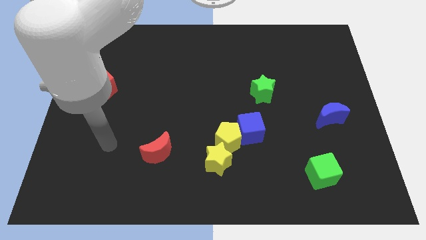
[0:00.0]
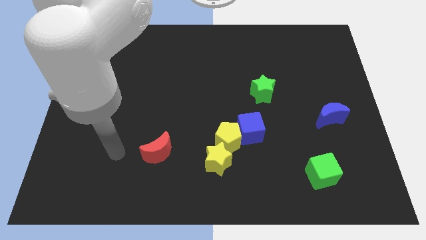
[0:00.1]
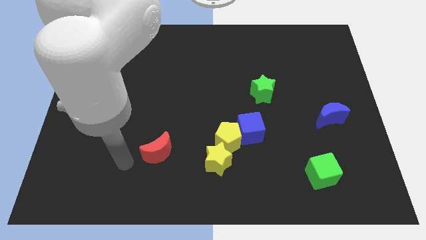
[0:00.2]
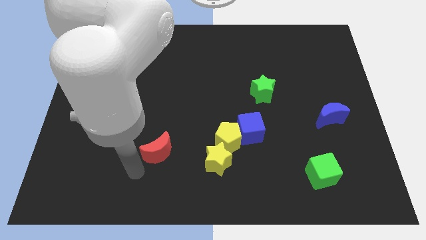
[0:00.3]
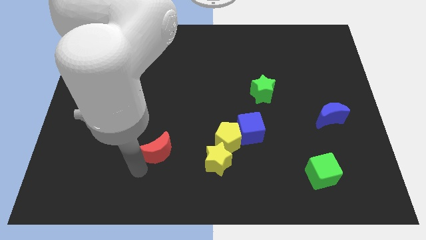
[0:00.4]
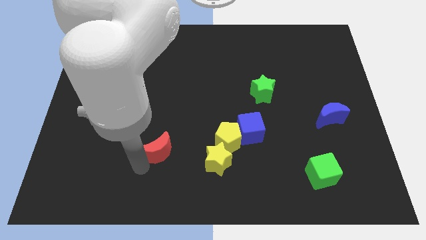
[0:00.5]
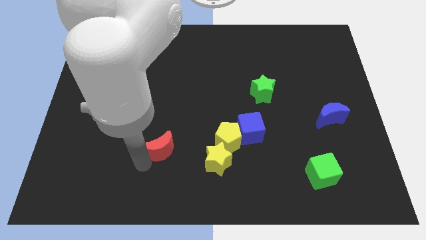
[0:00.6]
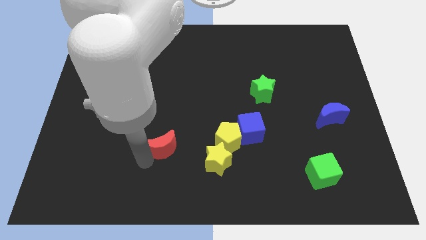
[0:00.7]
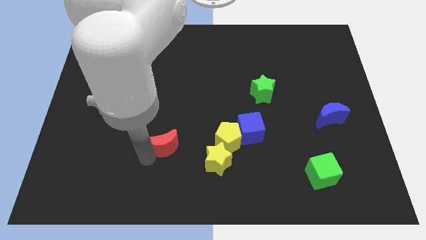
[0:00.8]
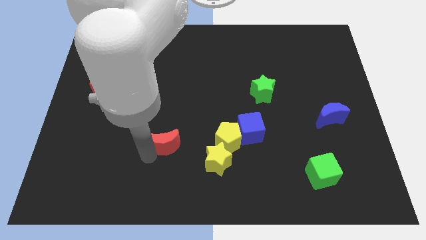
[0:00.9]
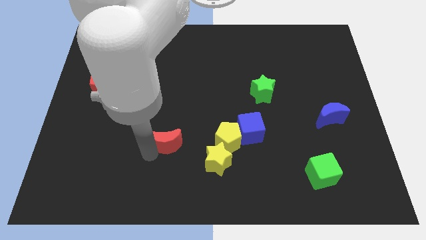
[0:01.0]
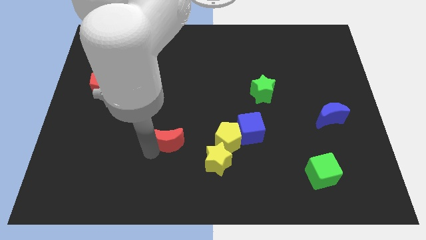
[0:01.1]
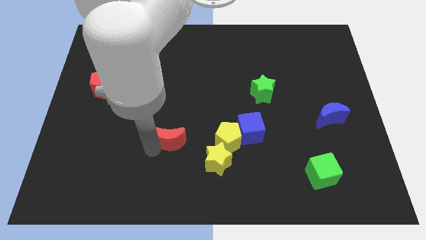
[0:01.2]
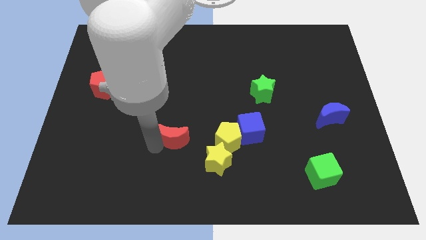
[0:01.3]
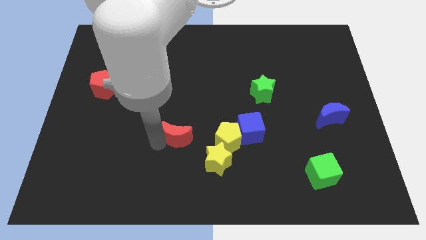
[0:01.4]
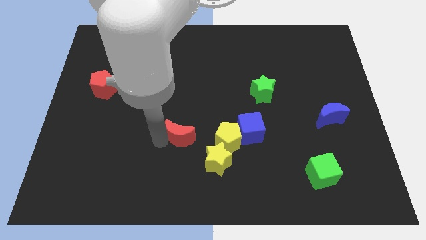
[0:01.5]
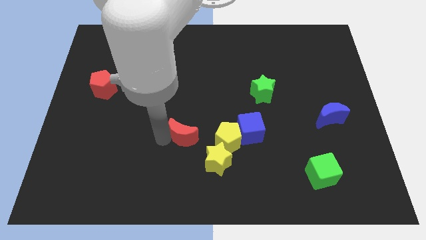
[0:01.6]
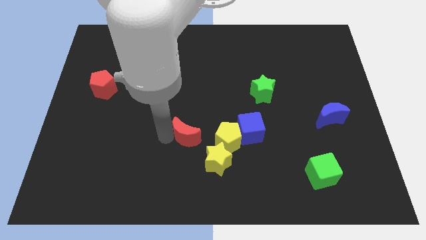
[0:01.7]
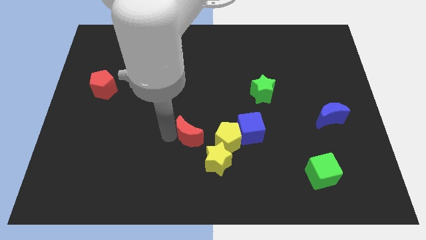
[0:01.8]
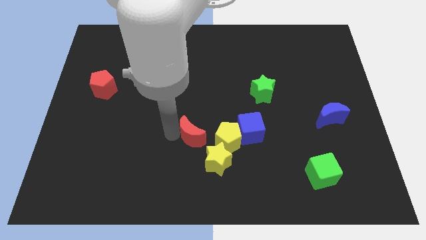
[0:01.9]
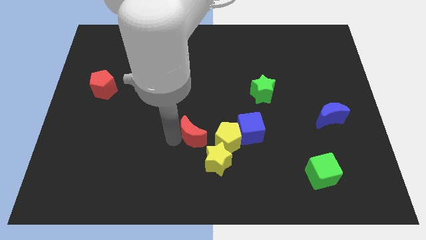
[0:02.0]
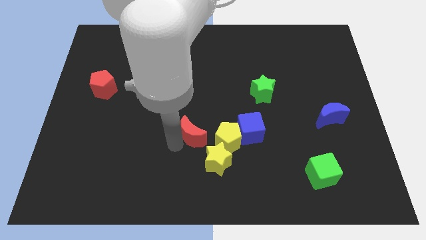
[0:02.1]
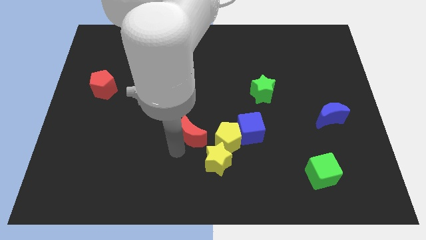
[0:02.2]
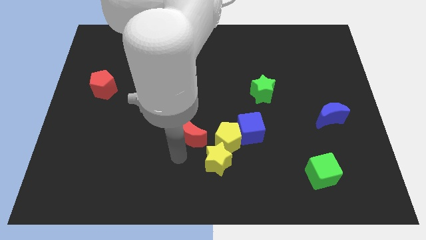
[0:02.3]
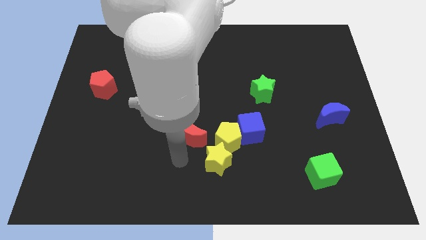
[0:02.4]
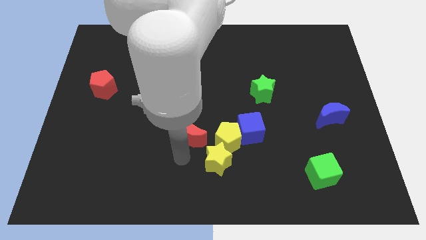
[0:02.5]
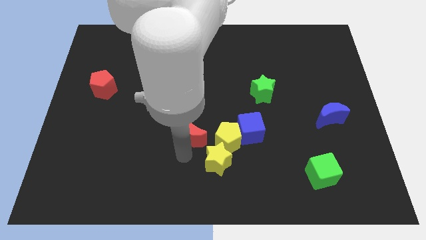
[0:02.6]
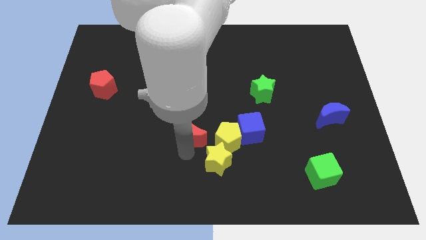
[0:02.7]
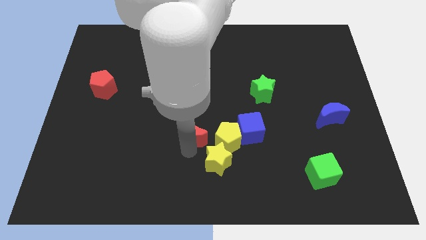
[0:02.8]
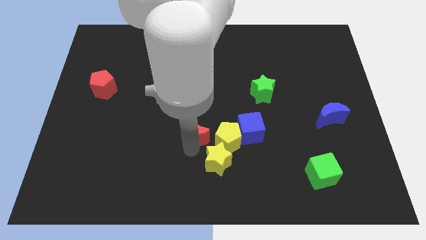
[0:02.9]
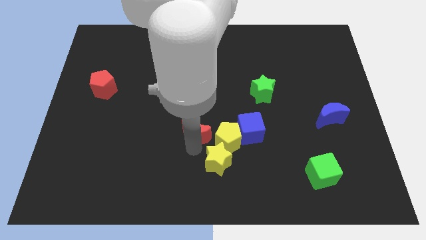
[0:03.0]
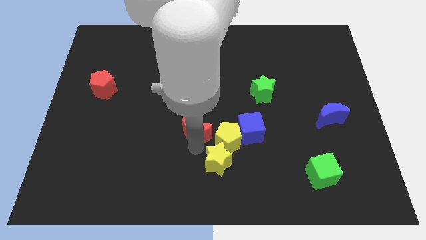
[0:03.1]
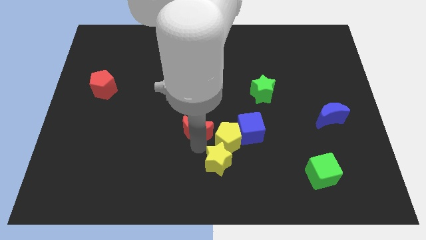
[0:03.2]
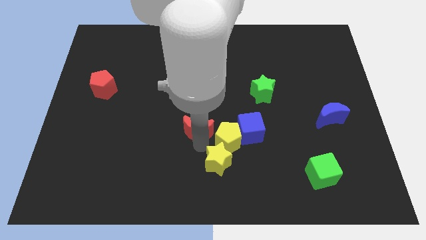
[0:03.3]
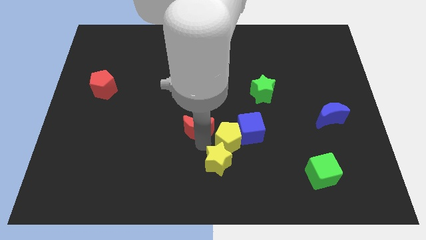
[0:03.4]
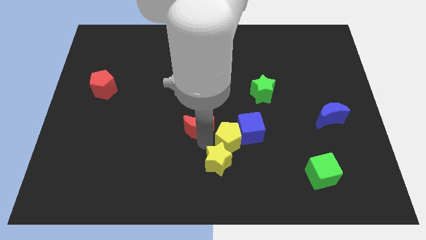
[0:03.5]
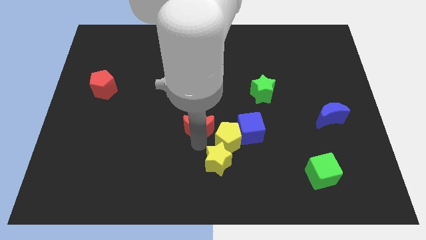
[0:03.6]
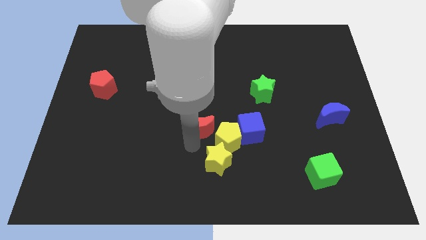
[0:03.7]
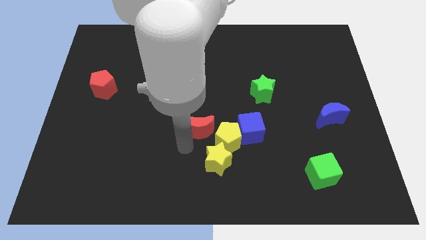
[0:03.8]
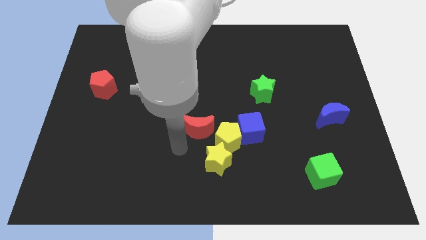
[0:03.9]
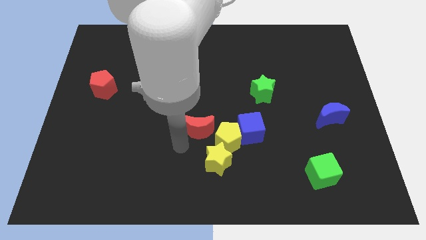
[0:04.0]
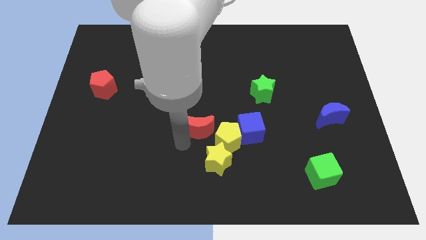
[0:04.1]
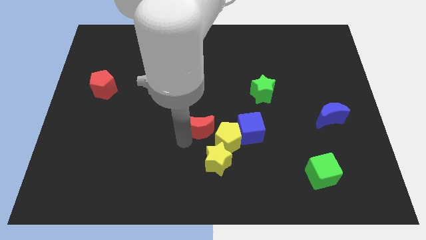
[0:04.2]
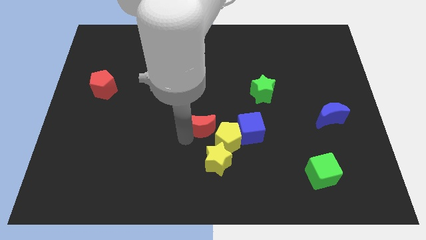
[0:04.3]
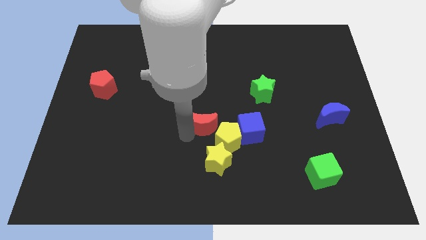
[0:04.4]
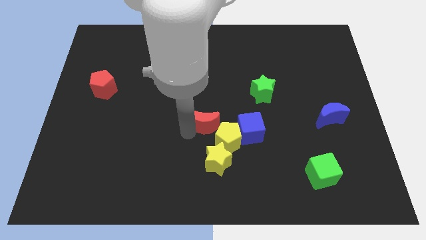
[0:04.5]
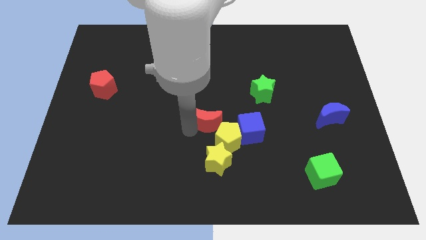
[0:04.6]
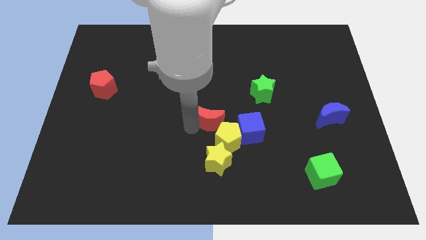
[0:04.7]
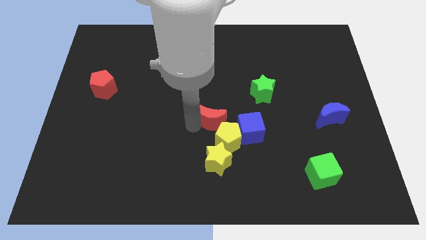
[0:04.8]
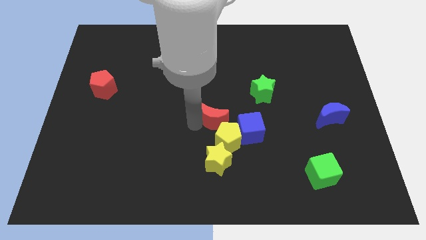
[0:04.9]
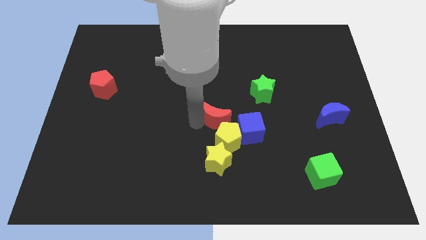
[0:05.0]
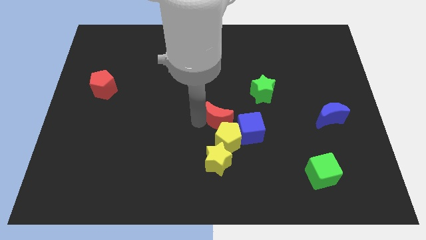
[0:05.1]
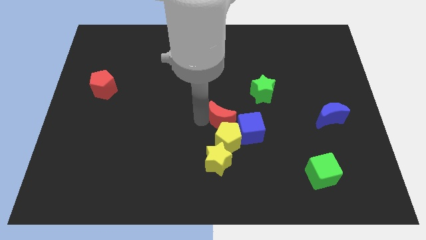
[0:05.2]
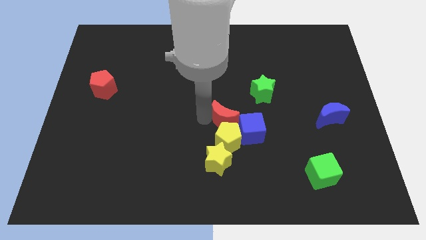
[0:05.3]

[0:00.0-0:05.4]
slide the red moon to the bottom left side of the green star

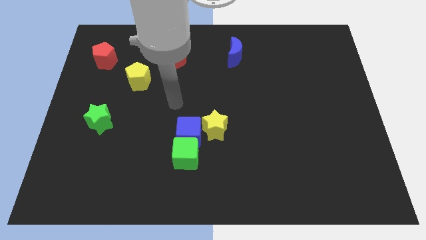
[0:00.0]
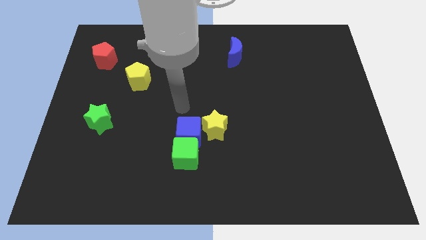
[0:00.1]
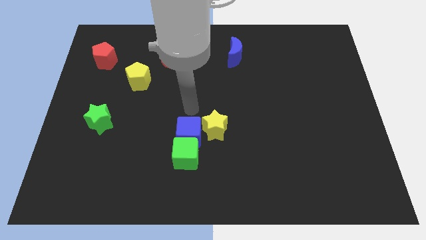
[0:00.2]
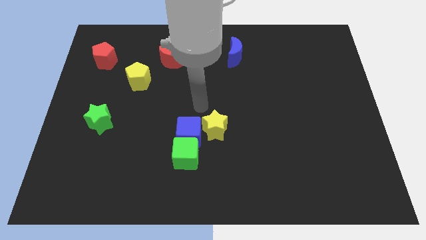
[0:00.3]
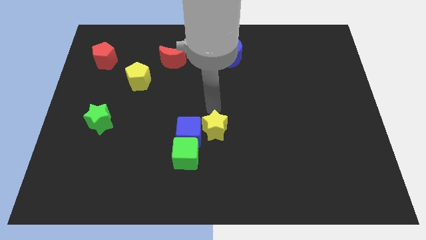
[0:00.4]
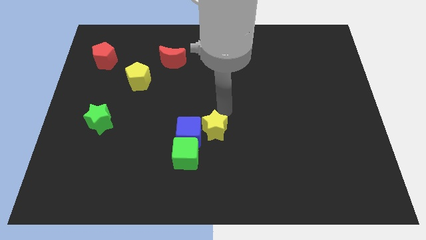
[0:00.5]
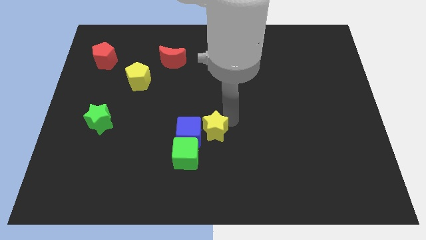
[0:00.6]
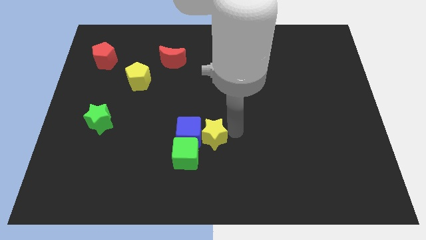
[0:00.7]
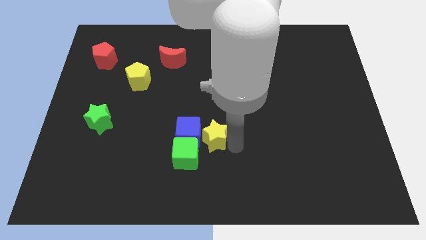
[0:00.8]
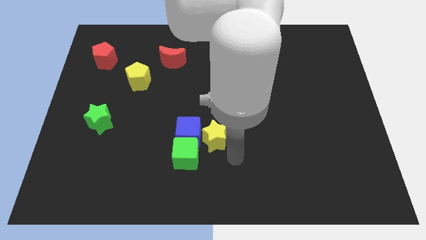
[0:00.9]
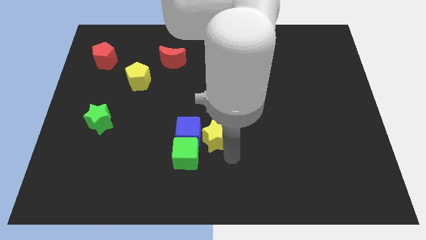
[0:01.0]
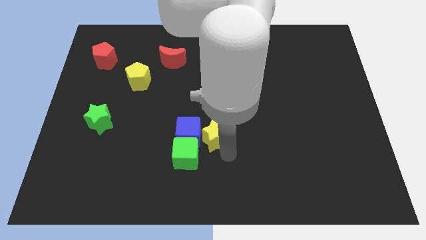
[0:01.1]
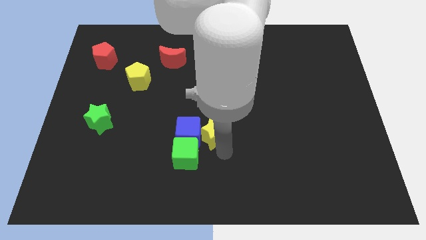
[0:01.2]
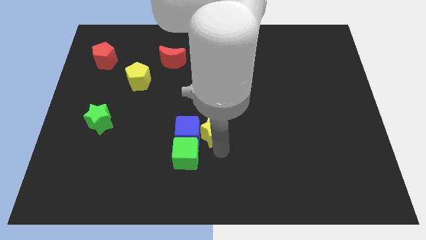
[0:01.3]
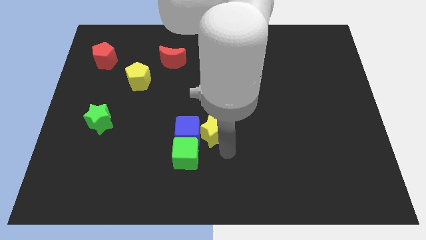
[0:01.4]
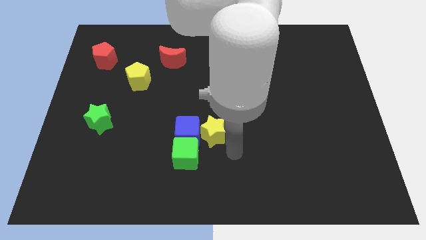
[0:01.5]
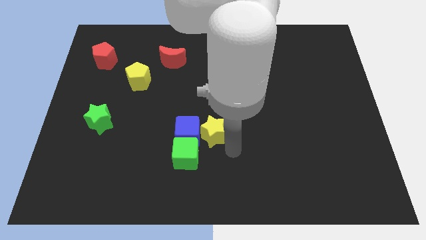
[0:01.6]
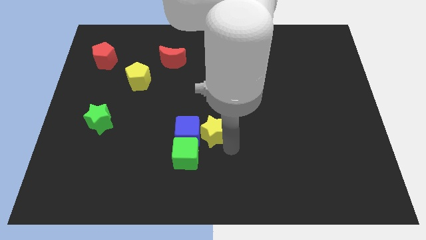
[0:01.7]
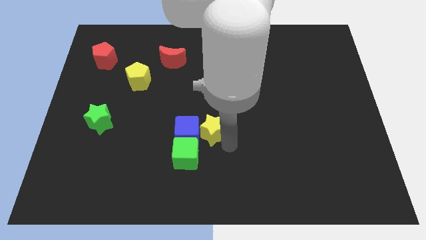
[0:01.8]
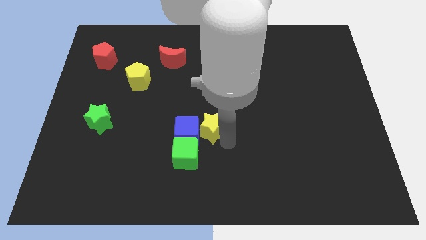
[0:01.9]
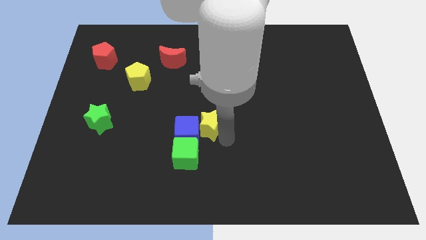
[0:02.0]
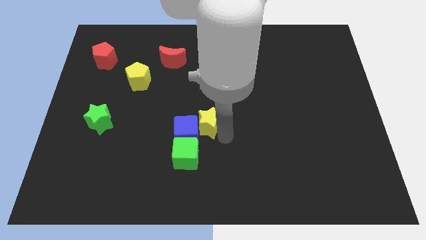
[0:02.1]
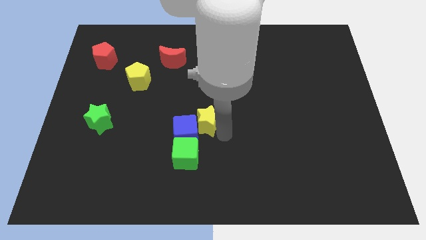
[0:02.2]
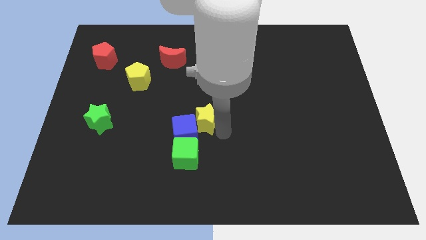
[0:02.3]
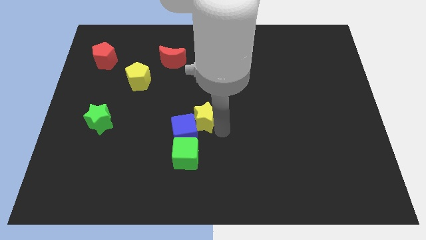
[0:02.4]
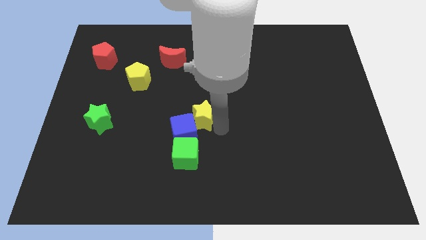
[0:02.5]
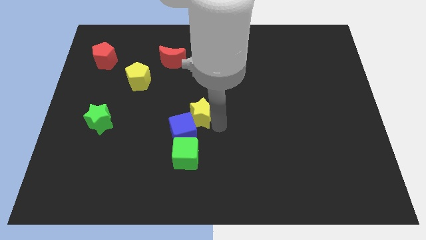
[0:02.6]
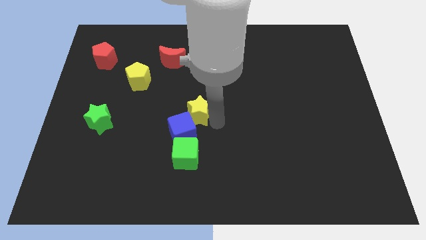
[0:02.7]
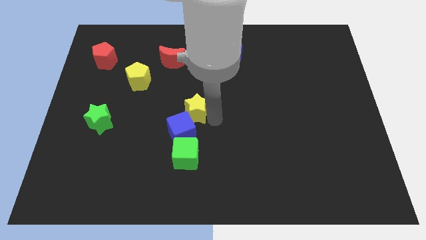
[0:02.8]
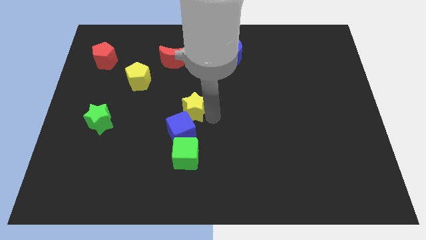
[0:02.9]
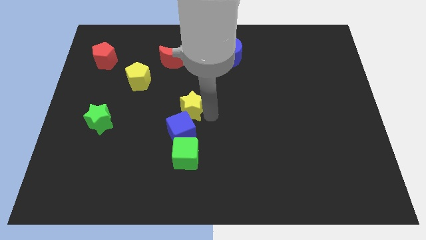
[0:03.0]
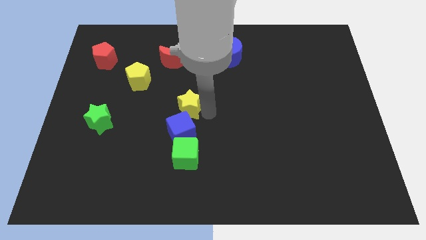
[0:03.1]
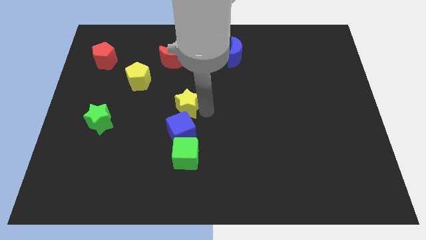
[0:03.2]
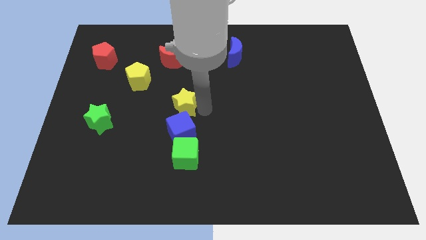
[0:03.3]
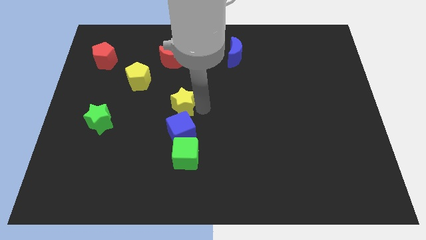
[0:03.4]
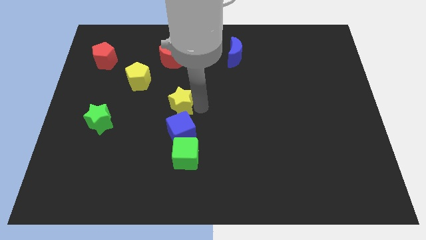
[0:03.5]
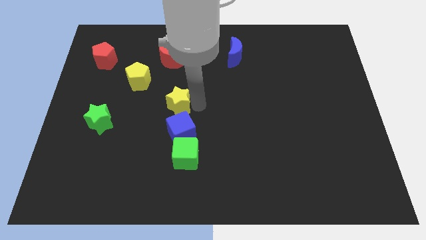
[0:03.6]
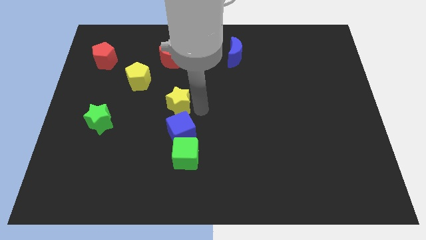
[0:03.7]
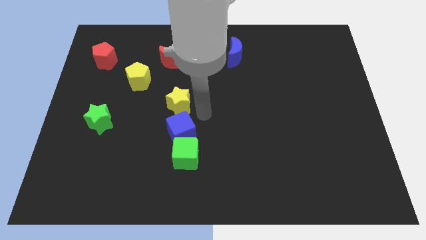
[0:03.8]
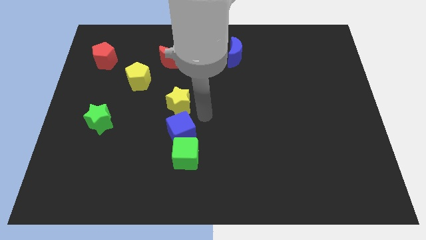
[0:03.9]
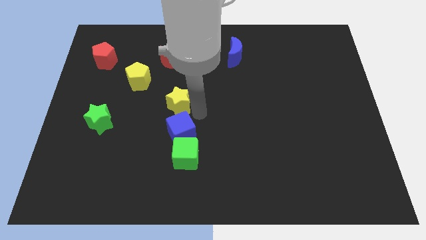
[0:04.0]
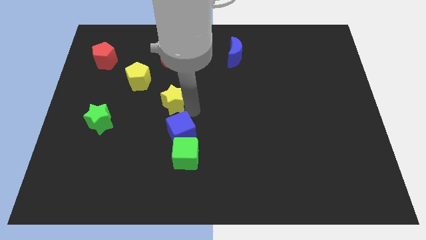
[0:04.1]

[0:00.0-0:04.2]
move the yellow star diagonally down and to the right of the yellow pentagon
